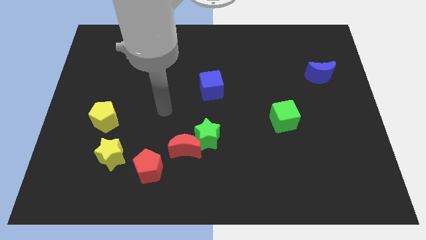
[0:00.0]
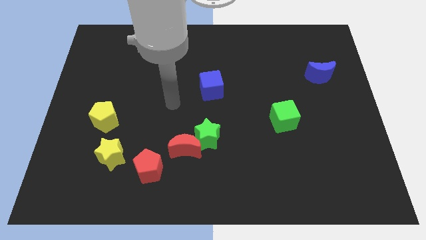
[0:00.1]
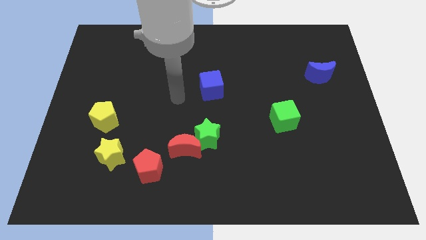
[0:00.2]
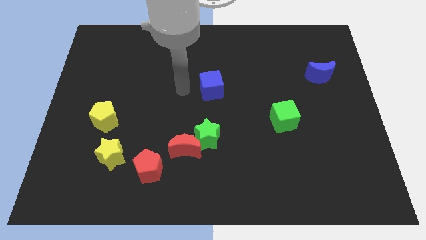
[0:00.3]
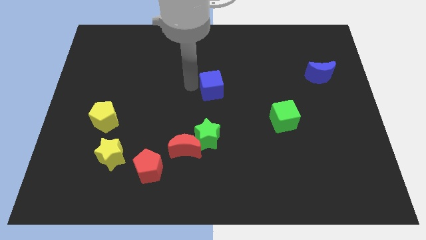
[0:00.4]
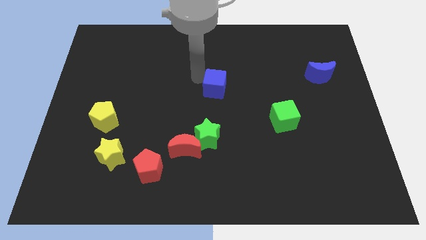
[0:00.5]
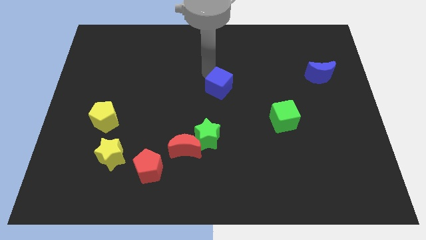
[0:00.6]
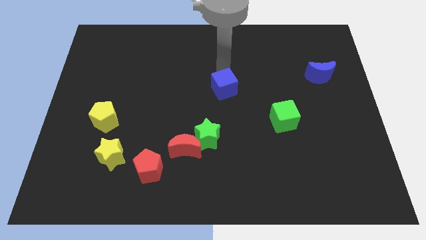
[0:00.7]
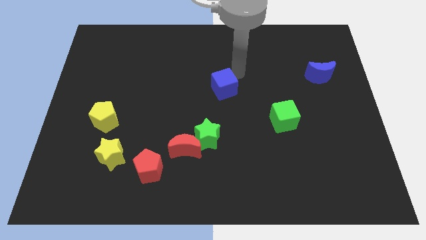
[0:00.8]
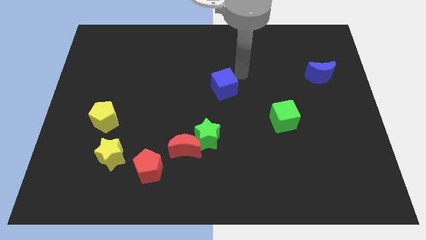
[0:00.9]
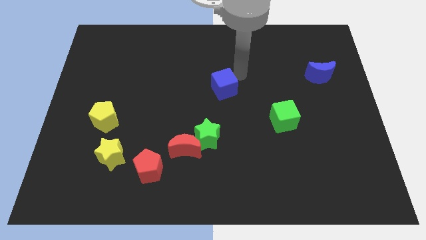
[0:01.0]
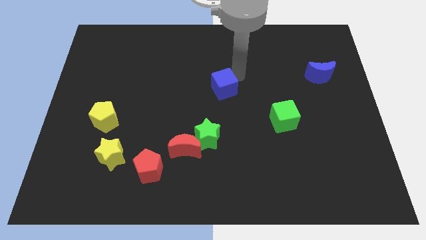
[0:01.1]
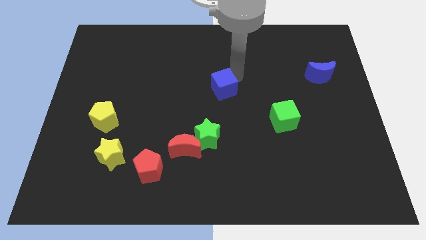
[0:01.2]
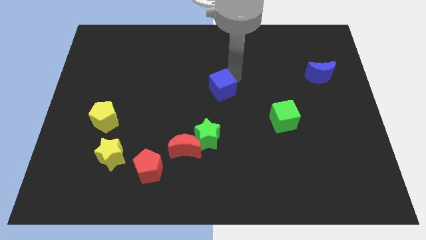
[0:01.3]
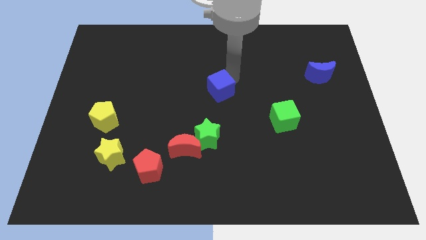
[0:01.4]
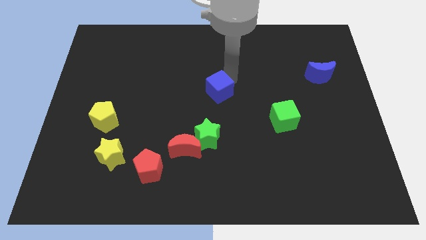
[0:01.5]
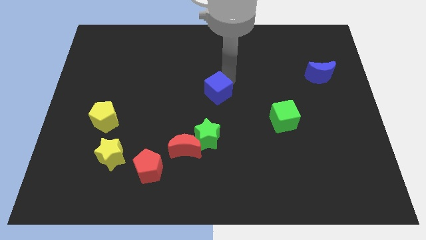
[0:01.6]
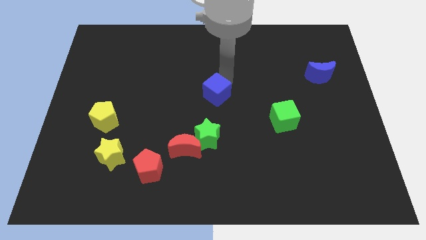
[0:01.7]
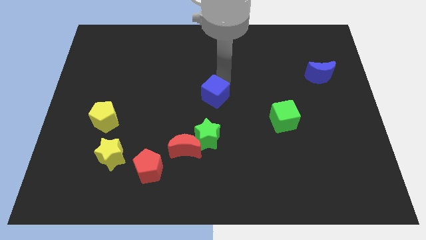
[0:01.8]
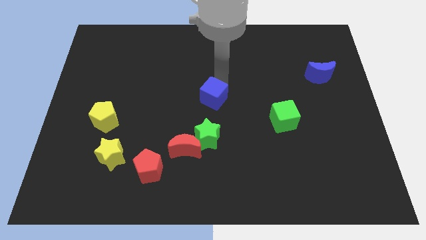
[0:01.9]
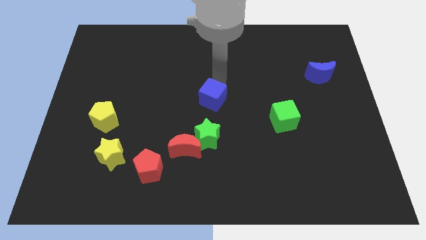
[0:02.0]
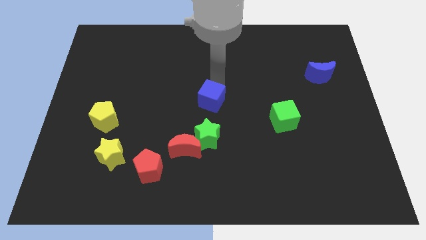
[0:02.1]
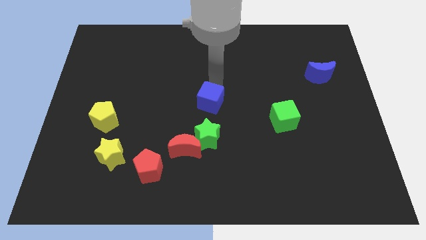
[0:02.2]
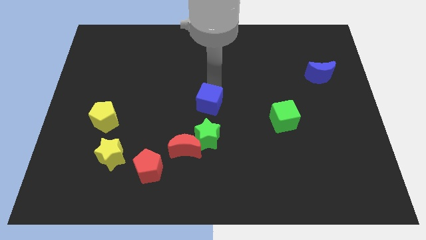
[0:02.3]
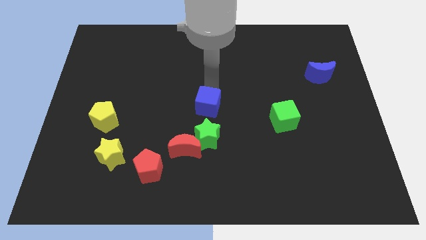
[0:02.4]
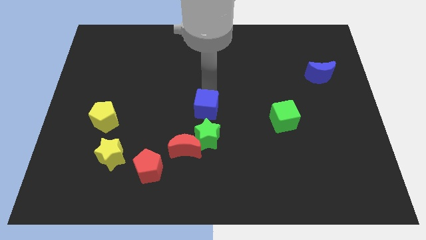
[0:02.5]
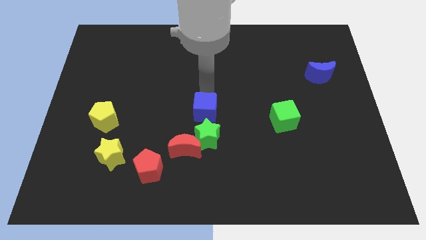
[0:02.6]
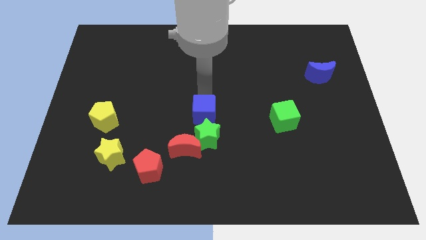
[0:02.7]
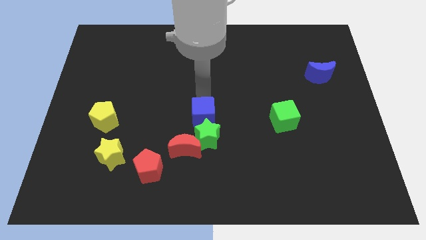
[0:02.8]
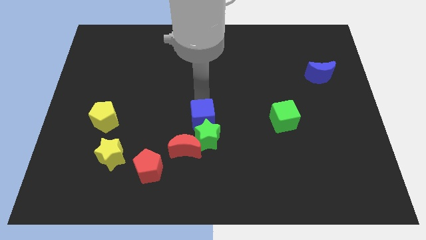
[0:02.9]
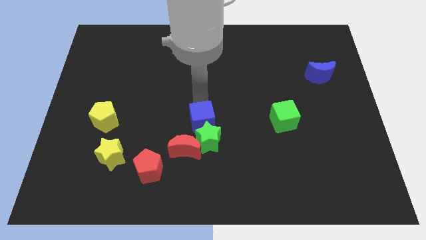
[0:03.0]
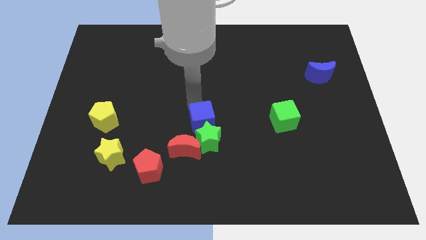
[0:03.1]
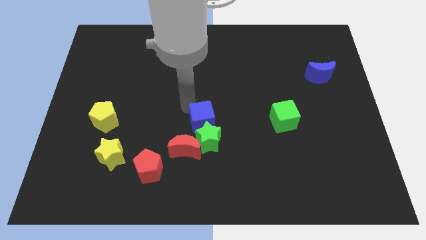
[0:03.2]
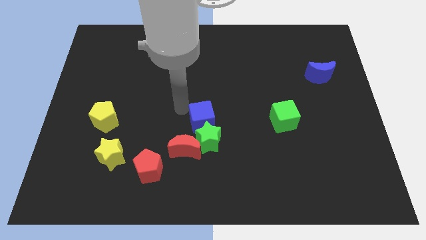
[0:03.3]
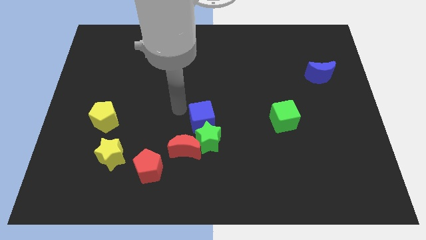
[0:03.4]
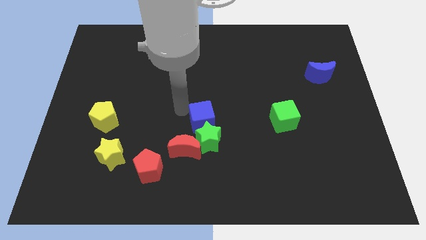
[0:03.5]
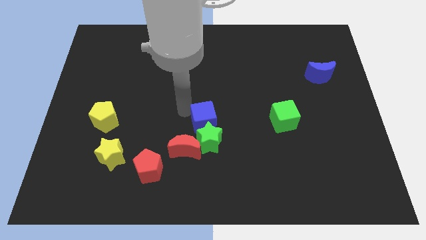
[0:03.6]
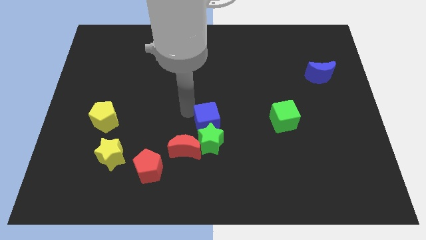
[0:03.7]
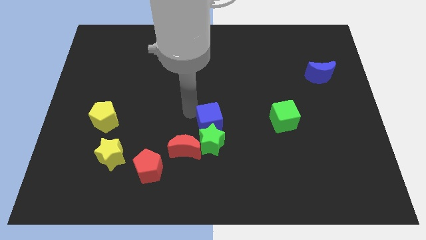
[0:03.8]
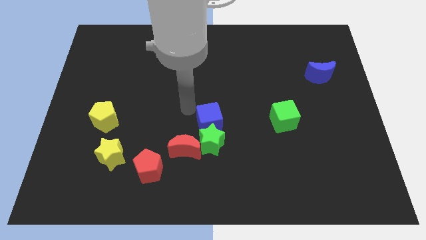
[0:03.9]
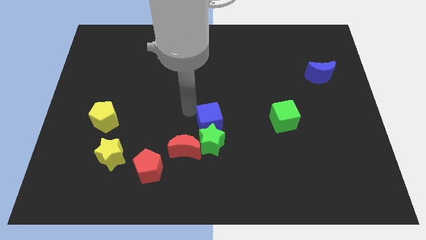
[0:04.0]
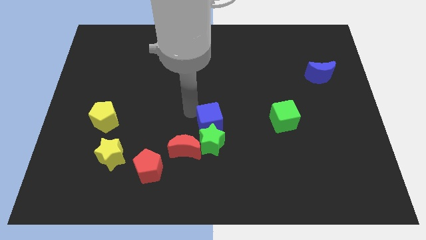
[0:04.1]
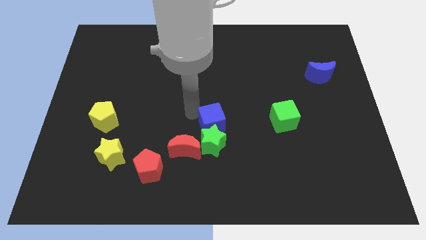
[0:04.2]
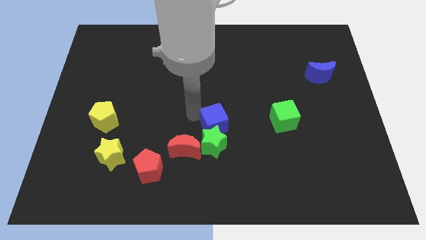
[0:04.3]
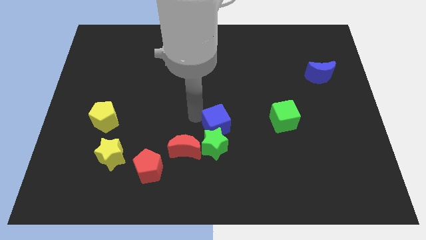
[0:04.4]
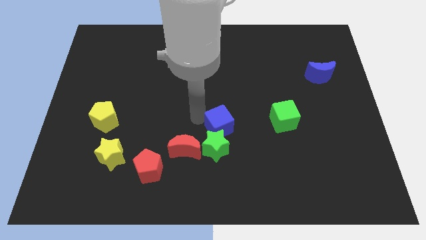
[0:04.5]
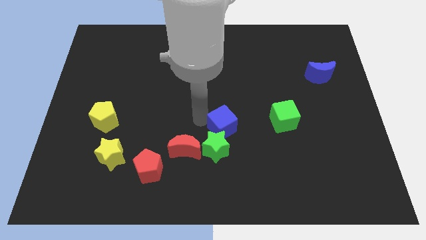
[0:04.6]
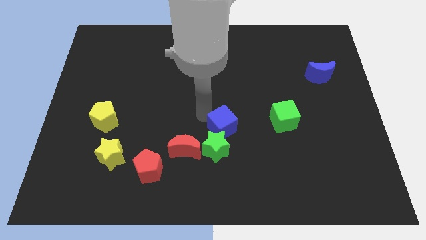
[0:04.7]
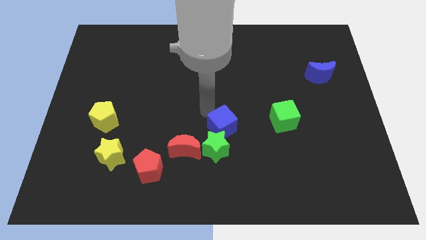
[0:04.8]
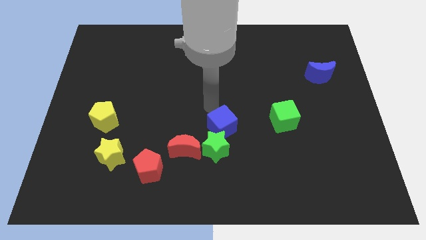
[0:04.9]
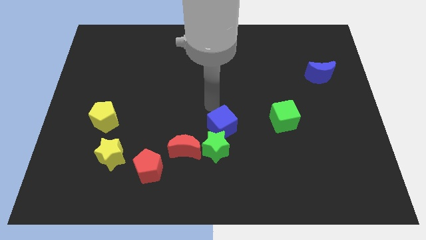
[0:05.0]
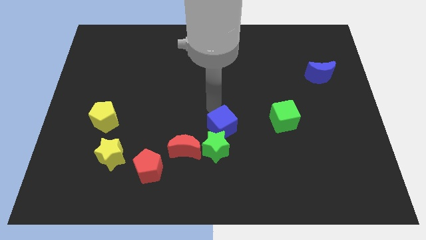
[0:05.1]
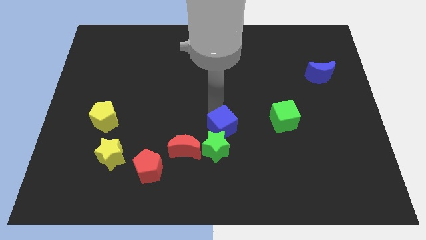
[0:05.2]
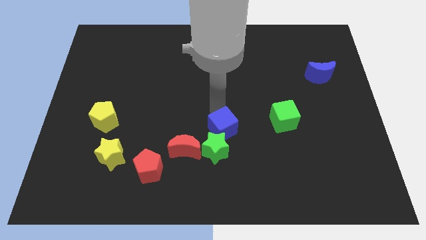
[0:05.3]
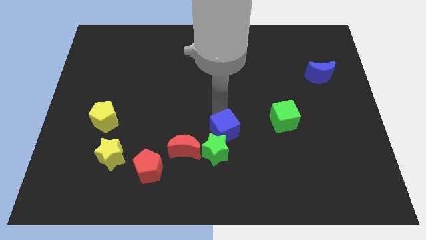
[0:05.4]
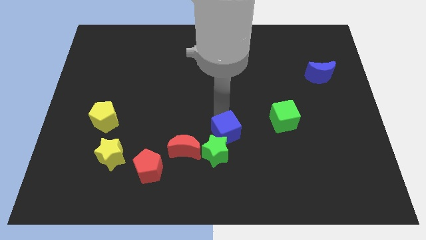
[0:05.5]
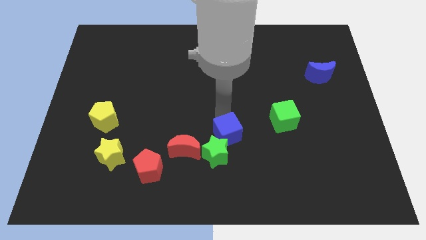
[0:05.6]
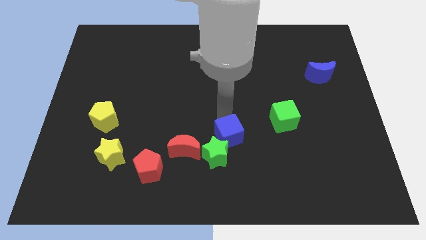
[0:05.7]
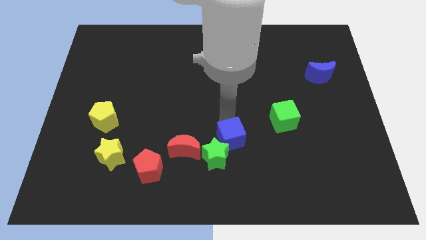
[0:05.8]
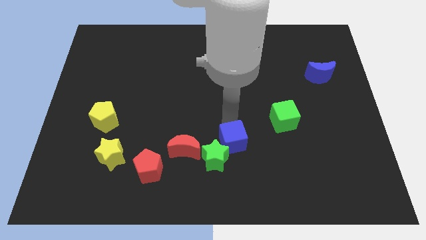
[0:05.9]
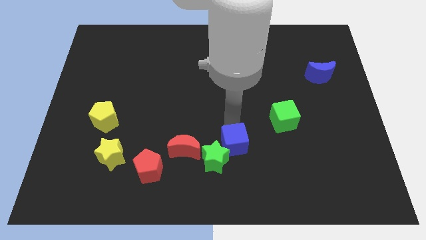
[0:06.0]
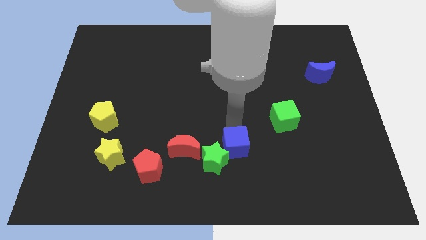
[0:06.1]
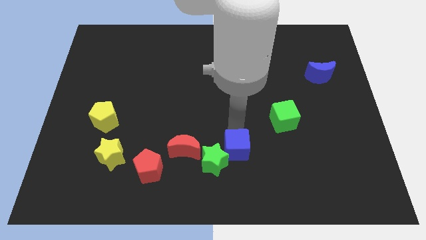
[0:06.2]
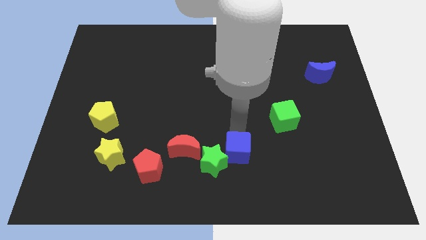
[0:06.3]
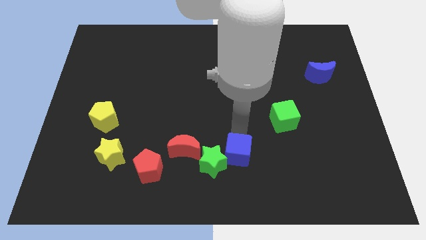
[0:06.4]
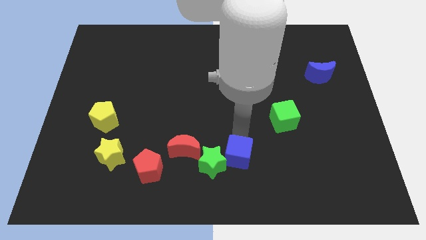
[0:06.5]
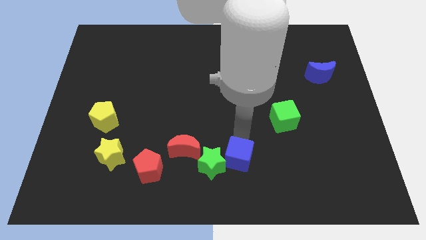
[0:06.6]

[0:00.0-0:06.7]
slide the blue cube to the bottom
